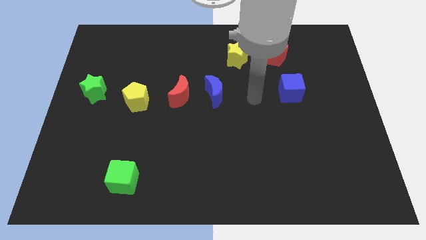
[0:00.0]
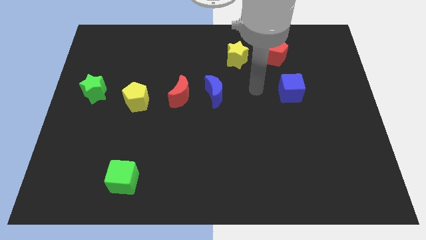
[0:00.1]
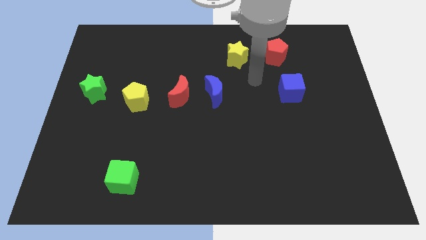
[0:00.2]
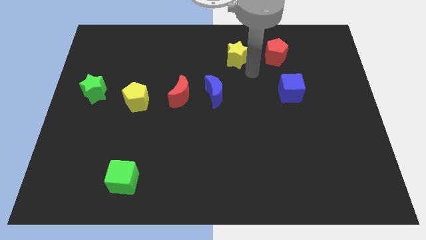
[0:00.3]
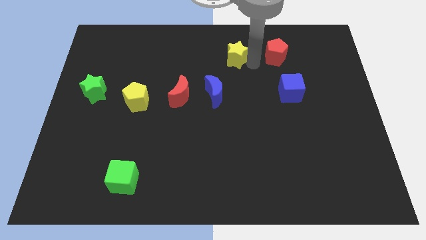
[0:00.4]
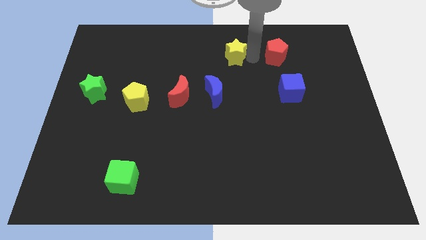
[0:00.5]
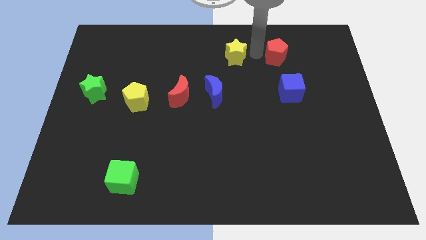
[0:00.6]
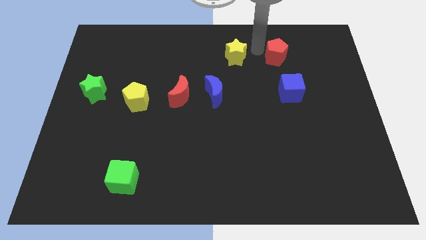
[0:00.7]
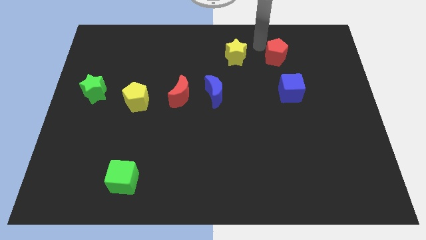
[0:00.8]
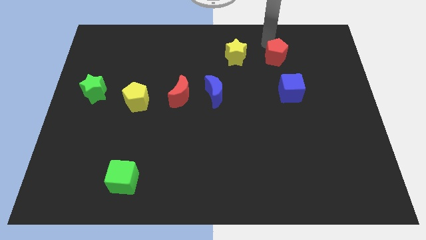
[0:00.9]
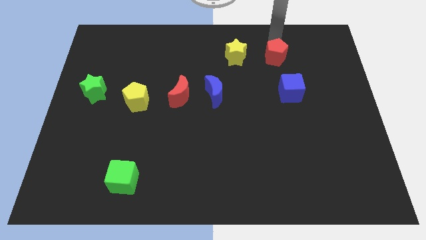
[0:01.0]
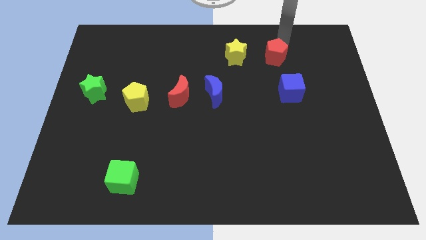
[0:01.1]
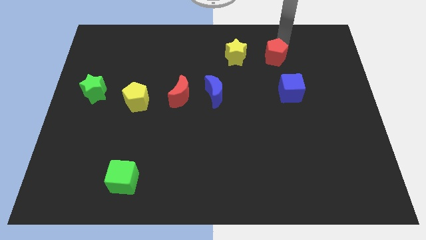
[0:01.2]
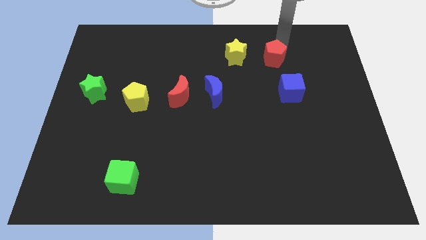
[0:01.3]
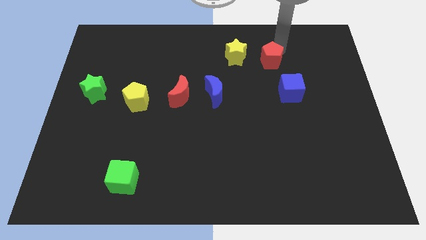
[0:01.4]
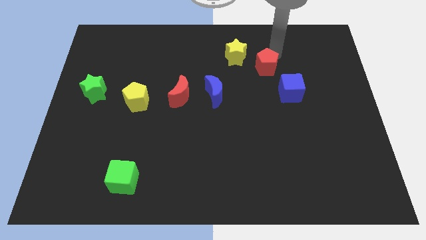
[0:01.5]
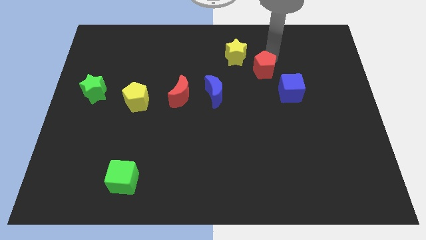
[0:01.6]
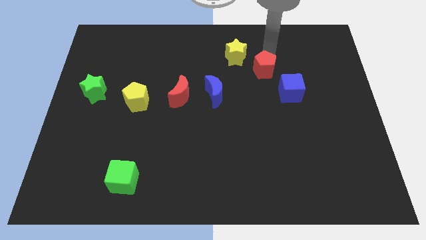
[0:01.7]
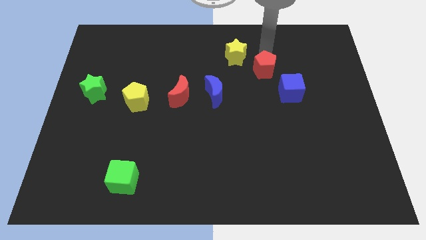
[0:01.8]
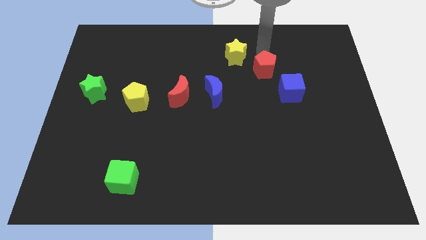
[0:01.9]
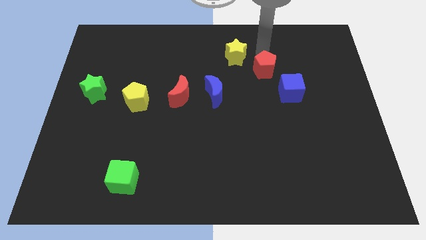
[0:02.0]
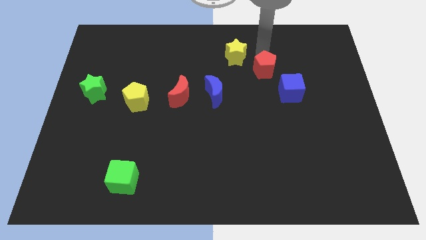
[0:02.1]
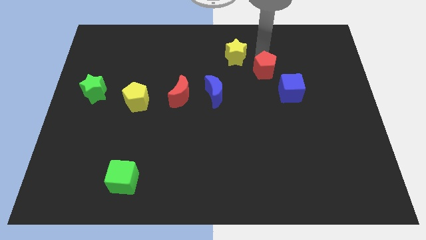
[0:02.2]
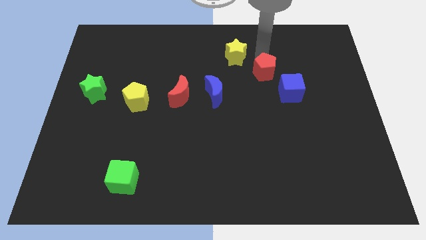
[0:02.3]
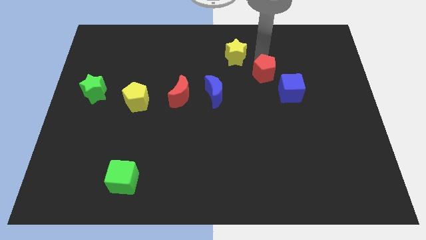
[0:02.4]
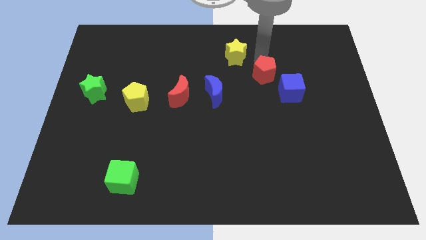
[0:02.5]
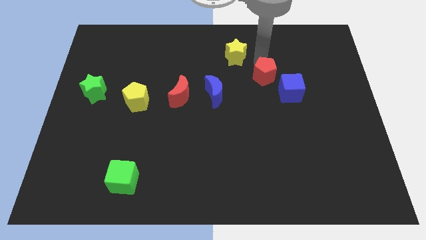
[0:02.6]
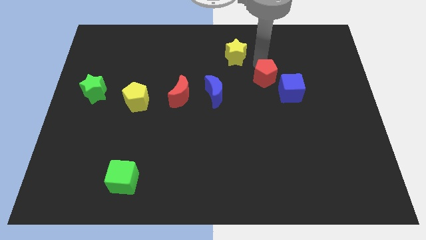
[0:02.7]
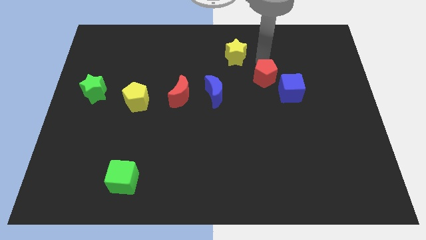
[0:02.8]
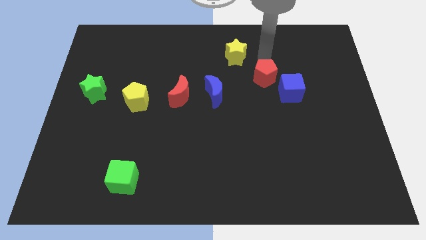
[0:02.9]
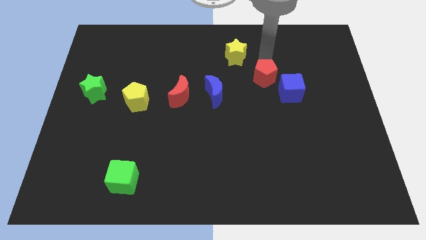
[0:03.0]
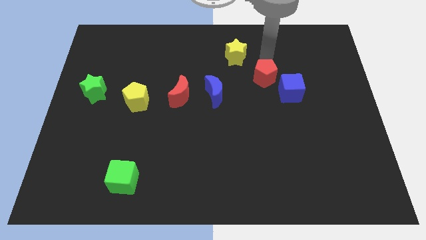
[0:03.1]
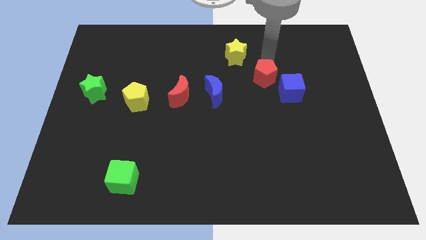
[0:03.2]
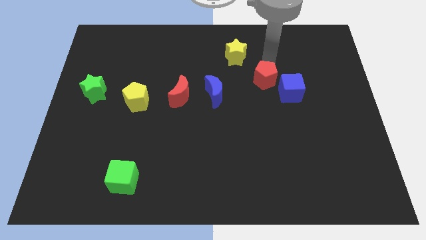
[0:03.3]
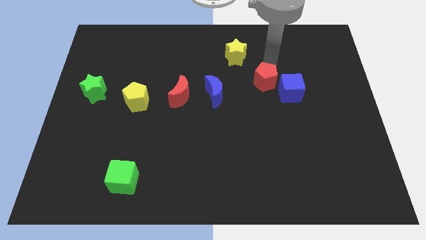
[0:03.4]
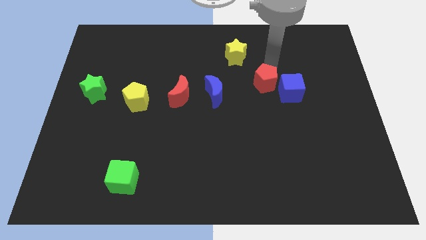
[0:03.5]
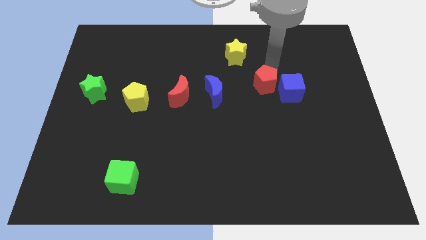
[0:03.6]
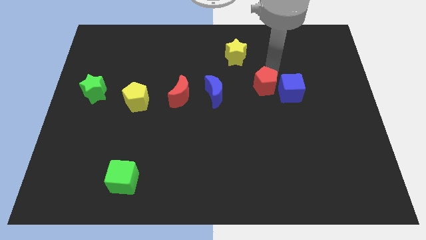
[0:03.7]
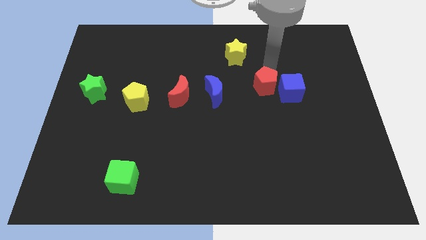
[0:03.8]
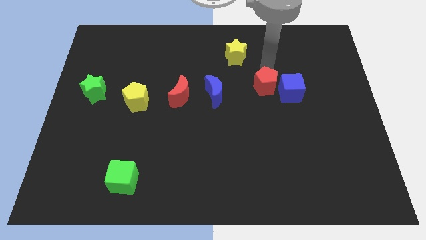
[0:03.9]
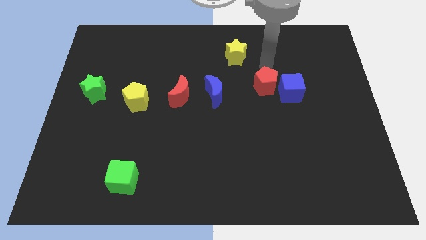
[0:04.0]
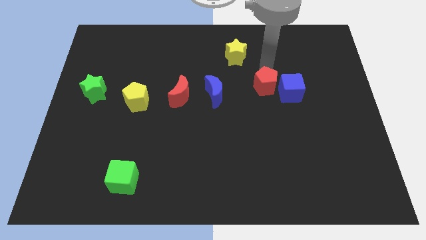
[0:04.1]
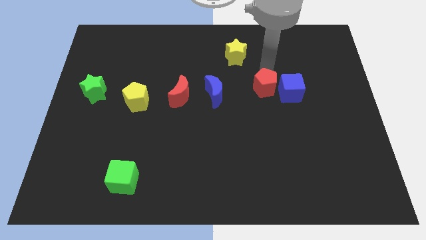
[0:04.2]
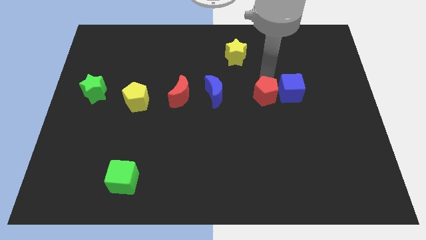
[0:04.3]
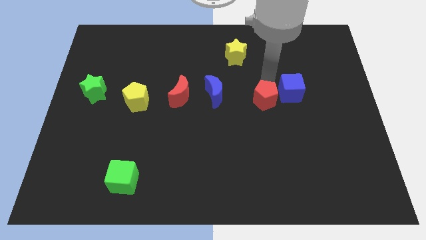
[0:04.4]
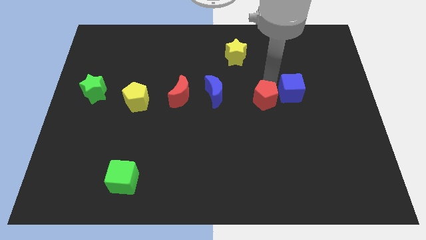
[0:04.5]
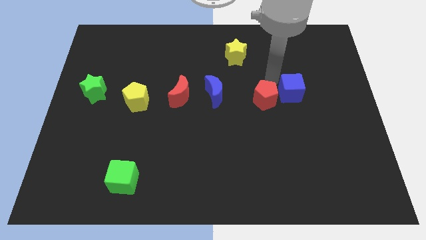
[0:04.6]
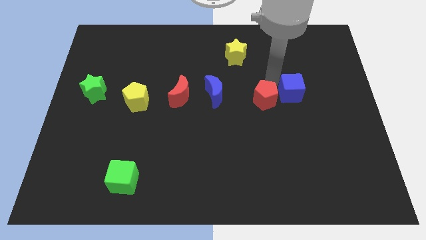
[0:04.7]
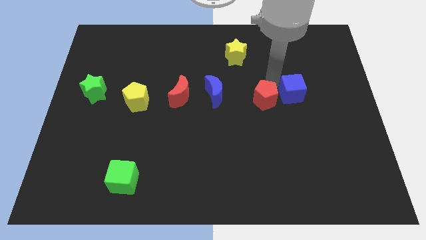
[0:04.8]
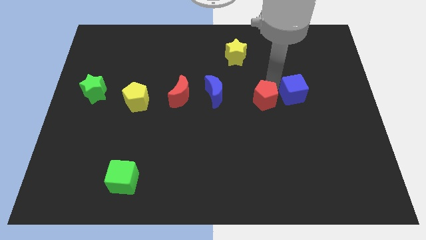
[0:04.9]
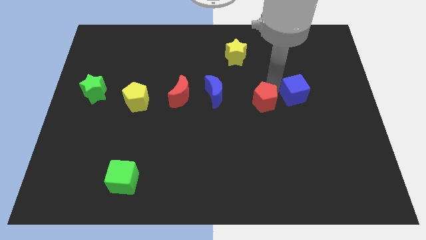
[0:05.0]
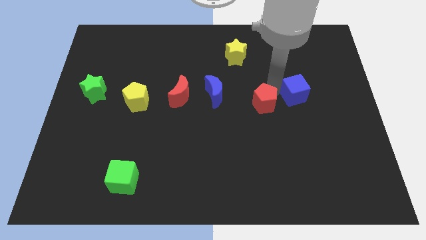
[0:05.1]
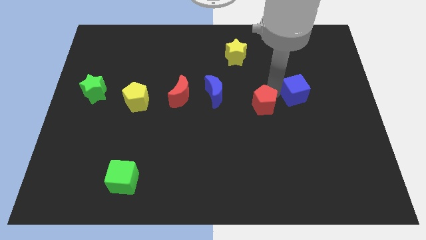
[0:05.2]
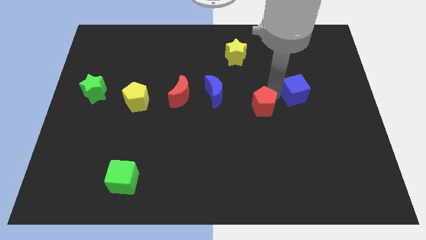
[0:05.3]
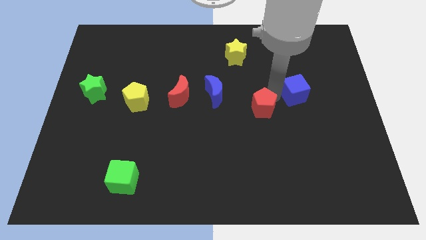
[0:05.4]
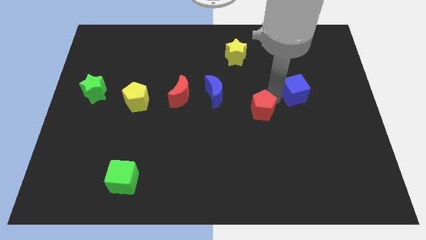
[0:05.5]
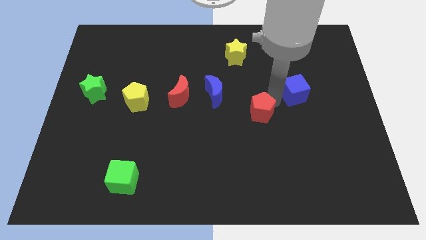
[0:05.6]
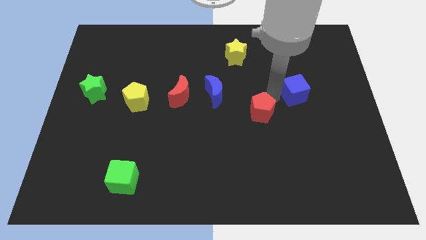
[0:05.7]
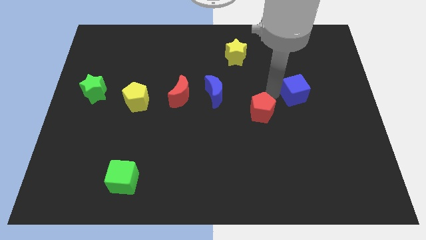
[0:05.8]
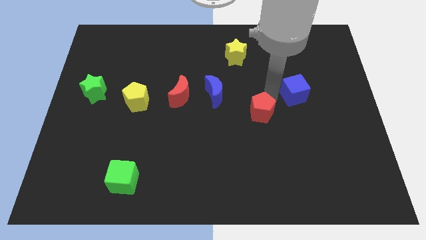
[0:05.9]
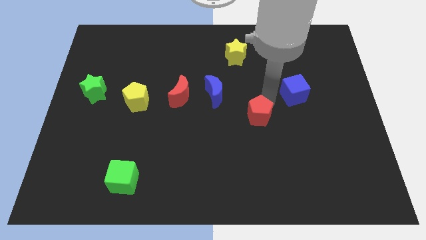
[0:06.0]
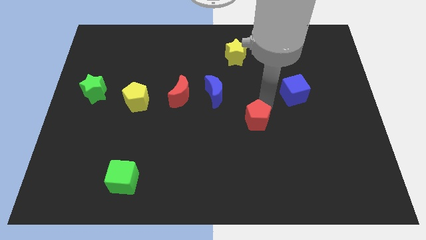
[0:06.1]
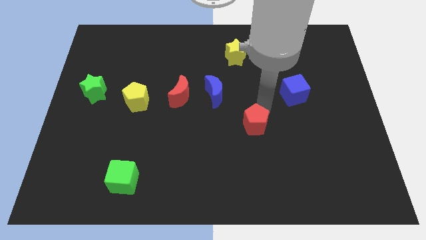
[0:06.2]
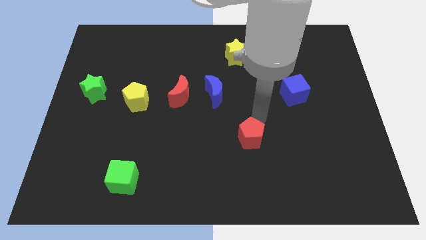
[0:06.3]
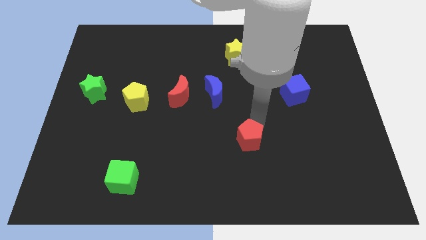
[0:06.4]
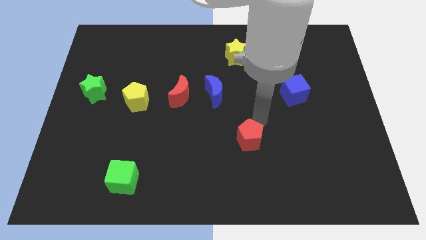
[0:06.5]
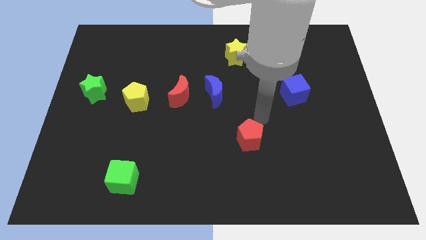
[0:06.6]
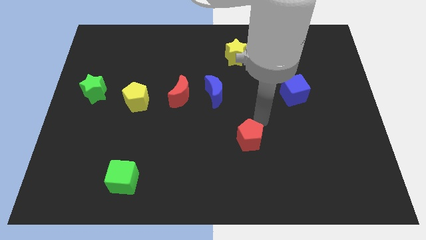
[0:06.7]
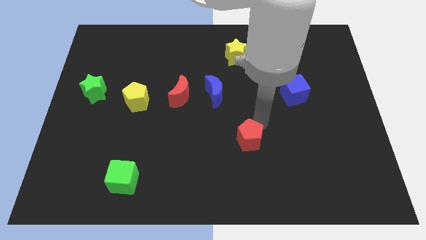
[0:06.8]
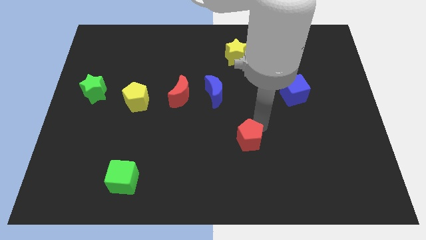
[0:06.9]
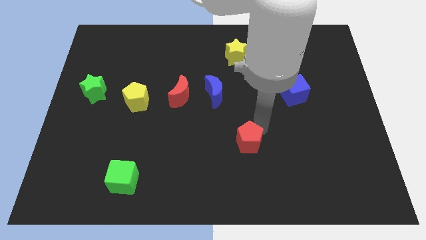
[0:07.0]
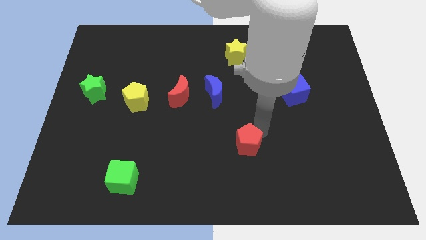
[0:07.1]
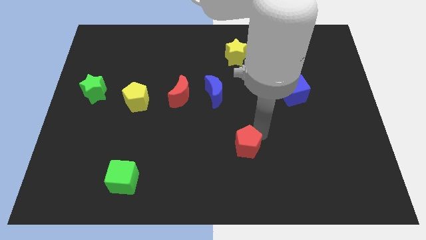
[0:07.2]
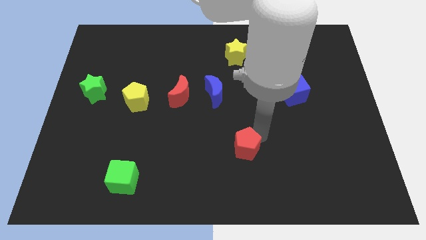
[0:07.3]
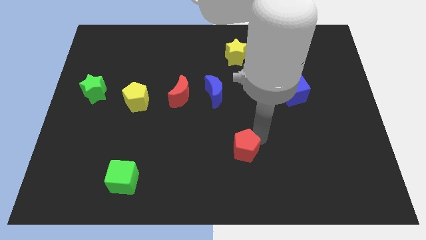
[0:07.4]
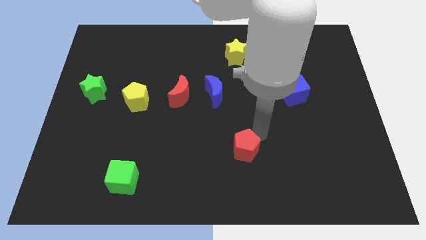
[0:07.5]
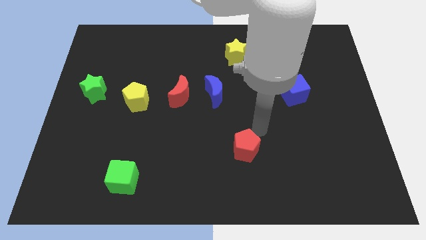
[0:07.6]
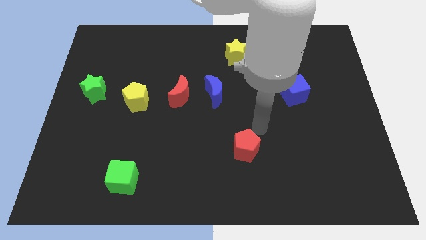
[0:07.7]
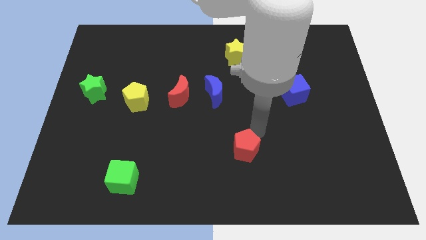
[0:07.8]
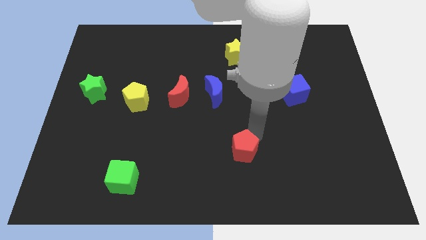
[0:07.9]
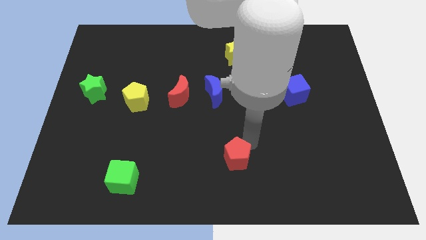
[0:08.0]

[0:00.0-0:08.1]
push the red pentagon to the bottom side
